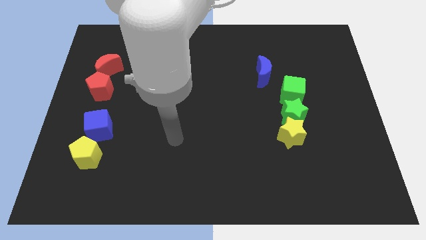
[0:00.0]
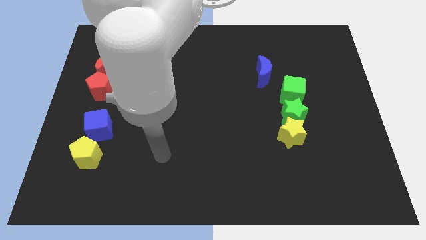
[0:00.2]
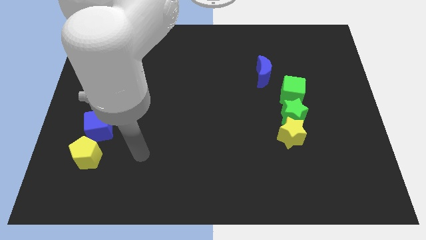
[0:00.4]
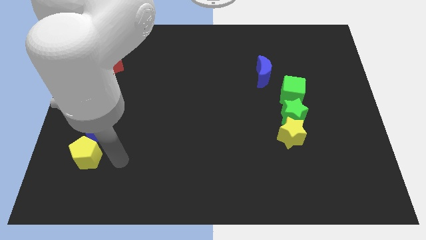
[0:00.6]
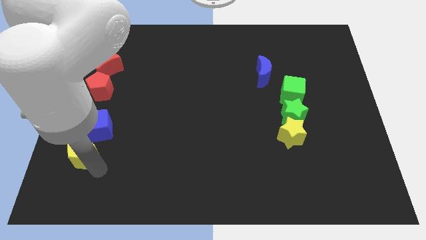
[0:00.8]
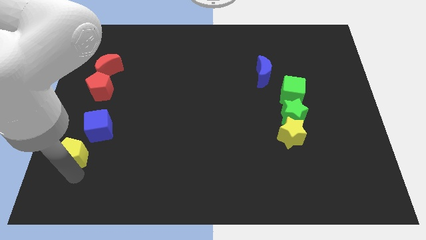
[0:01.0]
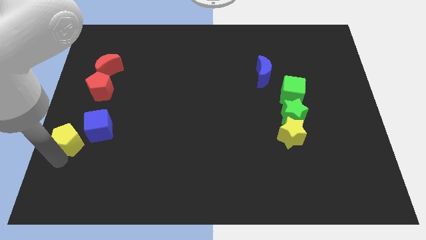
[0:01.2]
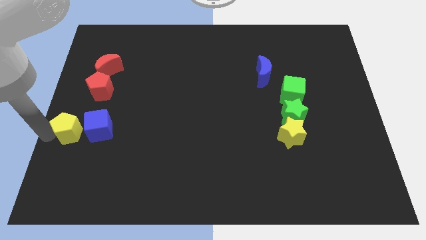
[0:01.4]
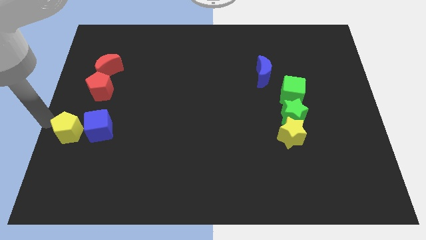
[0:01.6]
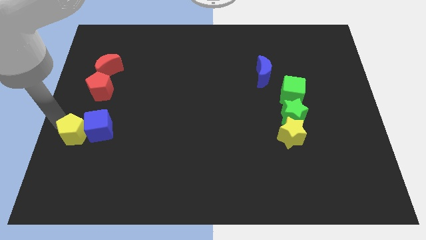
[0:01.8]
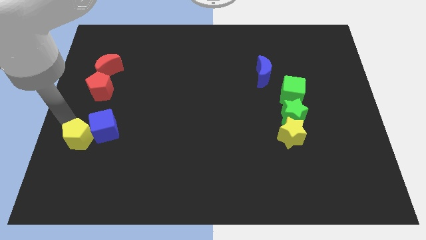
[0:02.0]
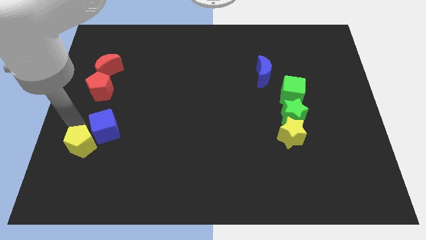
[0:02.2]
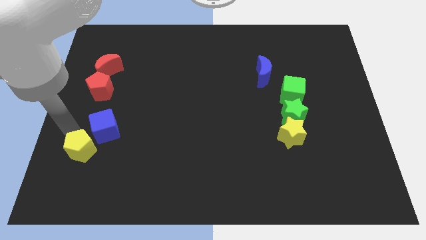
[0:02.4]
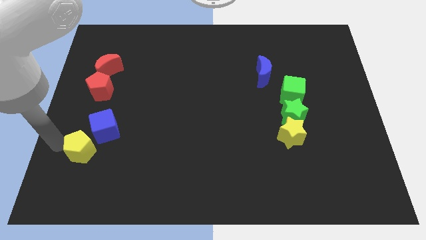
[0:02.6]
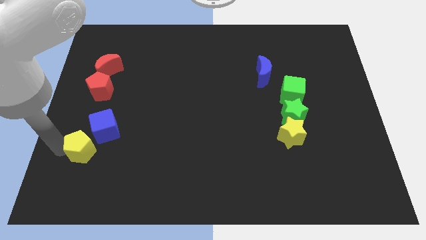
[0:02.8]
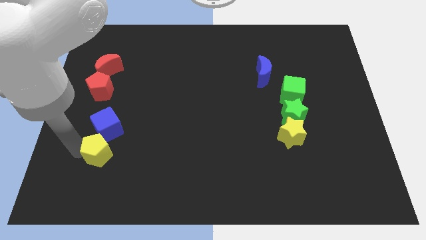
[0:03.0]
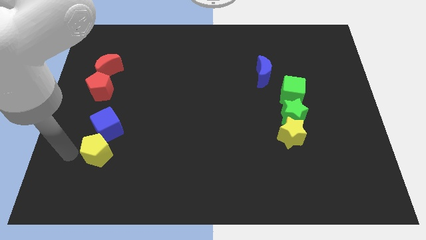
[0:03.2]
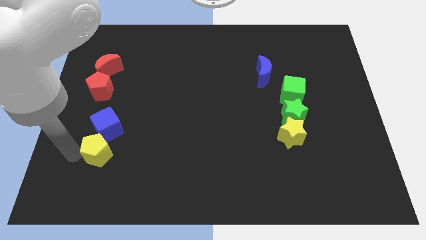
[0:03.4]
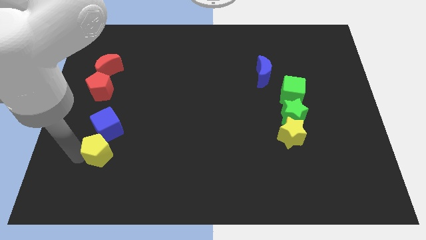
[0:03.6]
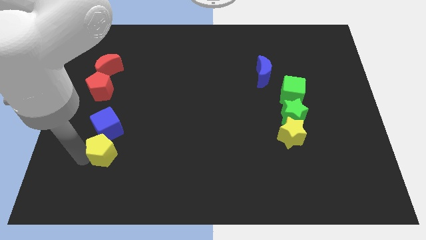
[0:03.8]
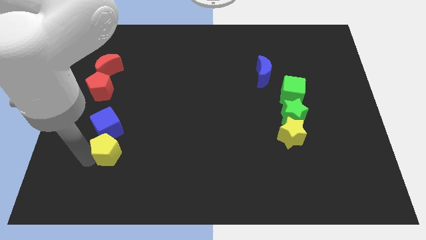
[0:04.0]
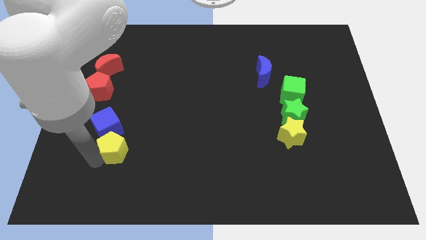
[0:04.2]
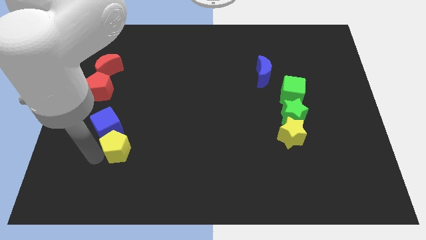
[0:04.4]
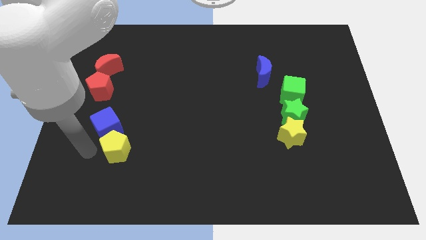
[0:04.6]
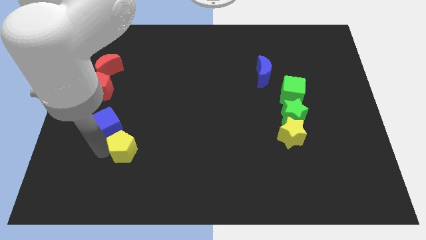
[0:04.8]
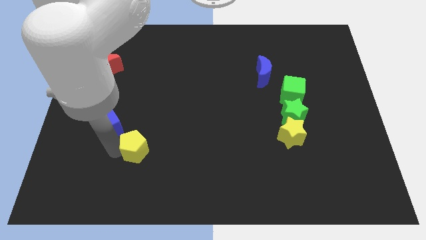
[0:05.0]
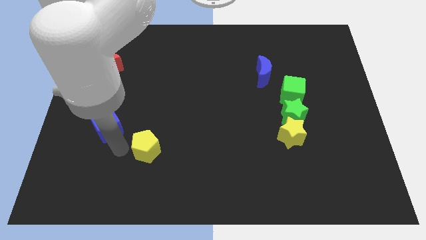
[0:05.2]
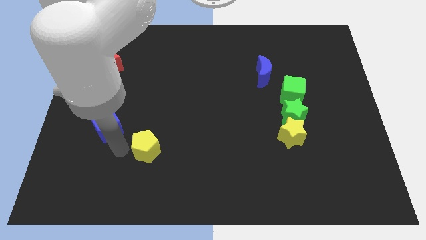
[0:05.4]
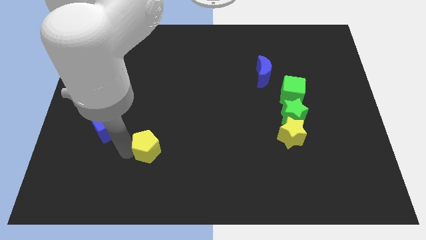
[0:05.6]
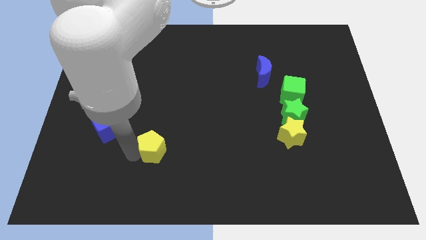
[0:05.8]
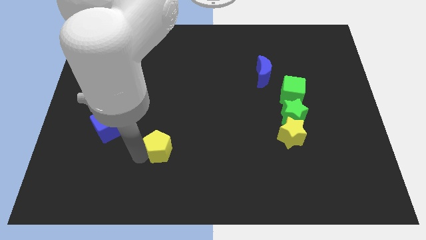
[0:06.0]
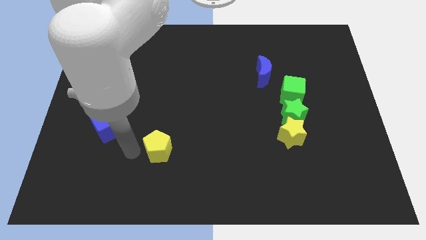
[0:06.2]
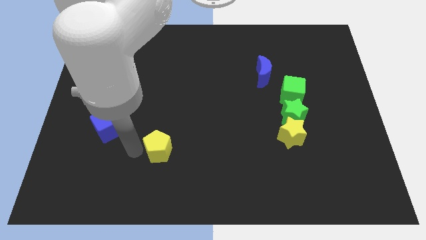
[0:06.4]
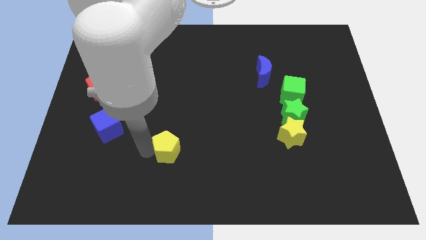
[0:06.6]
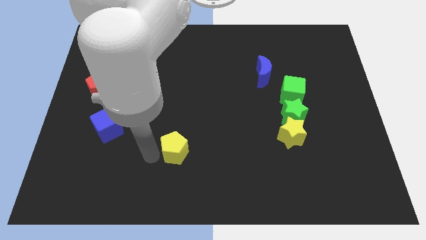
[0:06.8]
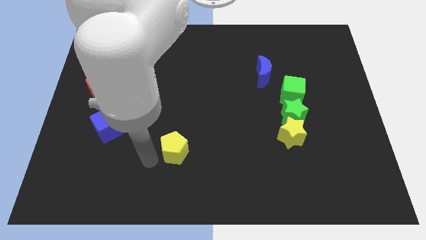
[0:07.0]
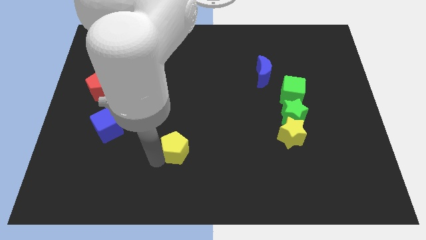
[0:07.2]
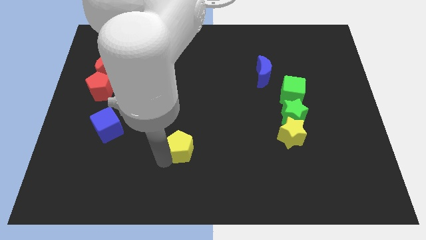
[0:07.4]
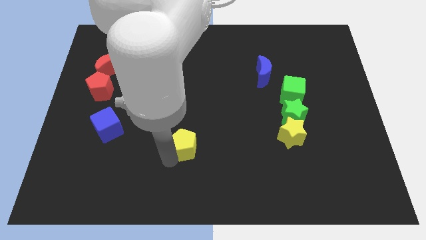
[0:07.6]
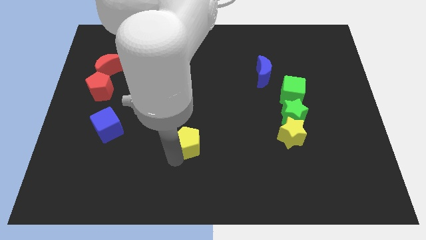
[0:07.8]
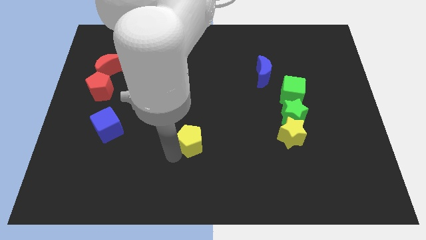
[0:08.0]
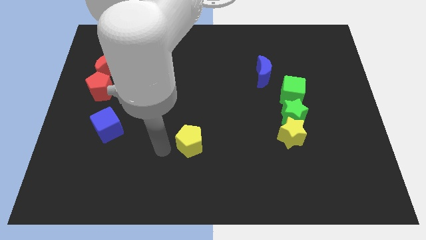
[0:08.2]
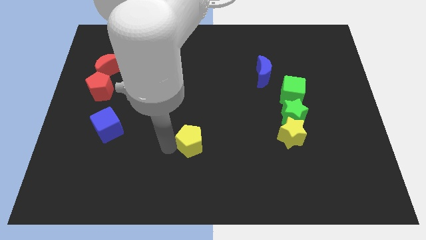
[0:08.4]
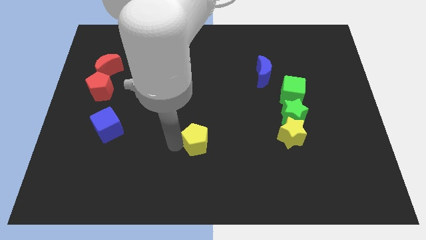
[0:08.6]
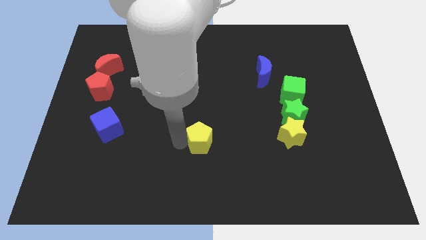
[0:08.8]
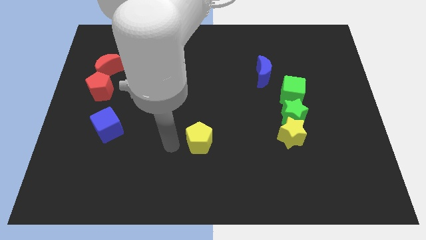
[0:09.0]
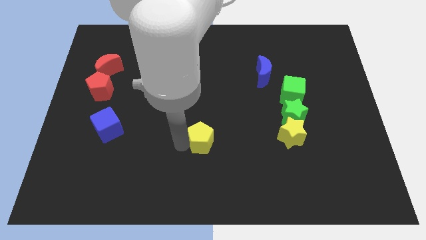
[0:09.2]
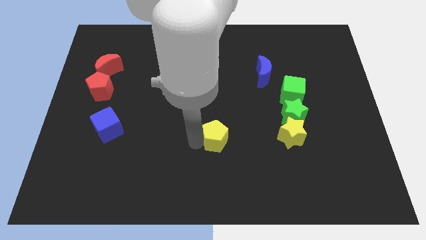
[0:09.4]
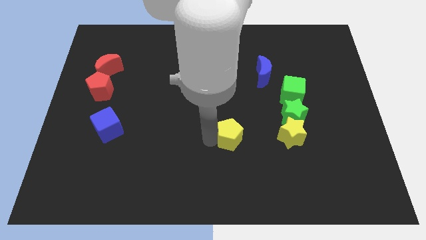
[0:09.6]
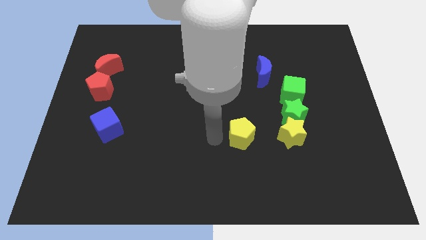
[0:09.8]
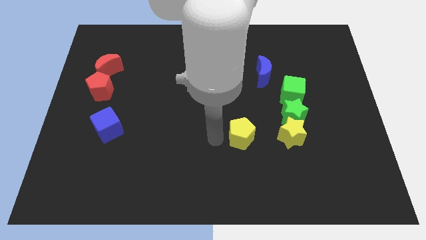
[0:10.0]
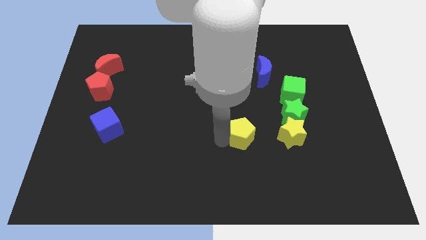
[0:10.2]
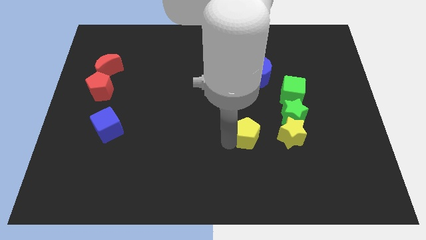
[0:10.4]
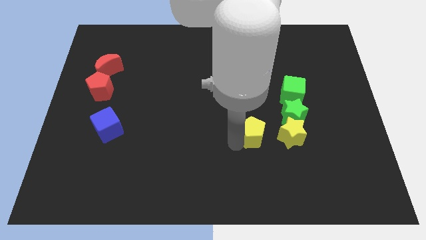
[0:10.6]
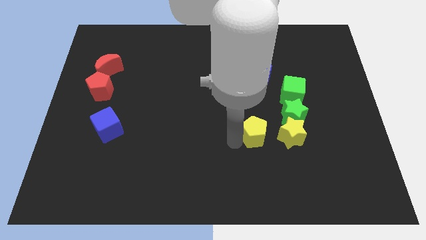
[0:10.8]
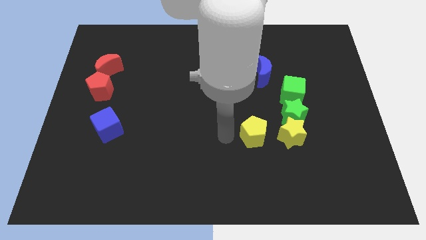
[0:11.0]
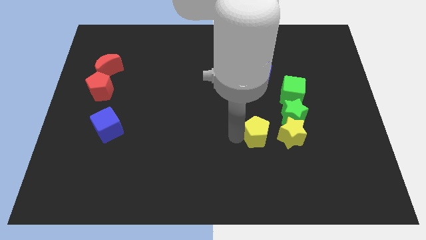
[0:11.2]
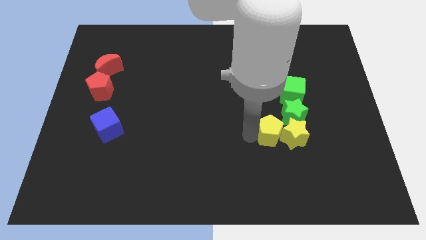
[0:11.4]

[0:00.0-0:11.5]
put the yellow pentagon next to the yellow star

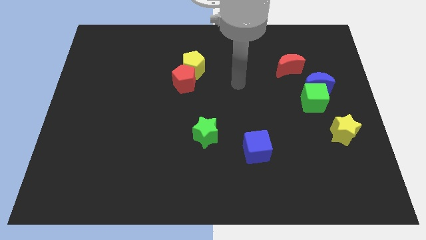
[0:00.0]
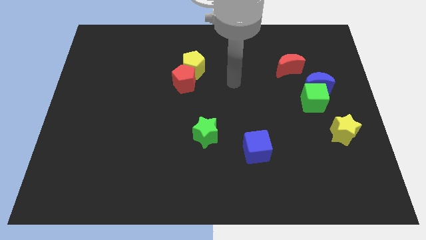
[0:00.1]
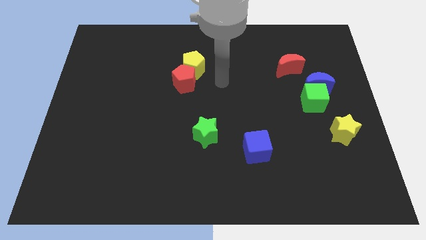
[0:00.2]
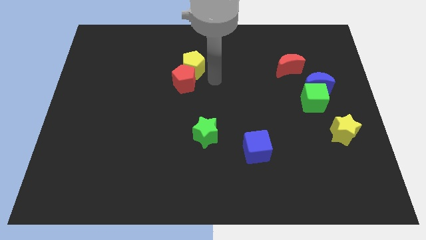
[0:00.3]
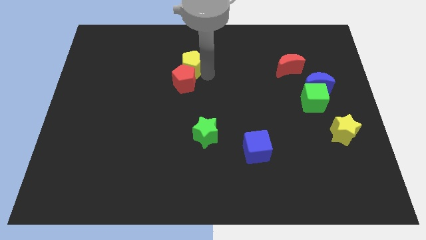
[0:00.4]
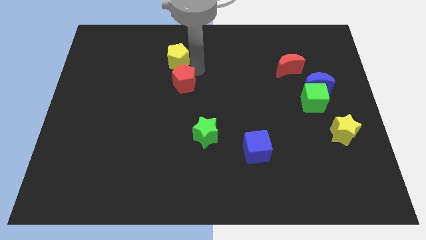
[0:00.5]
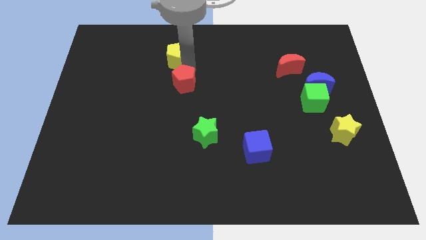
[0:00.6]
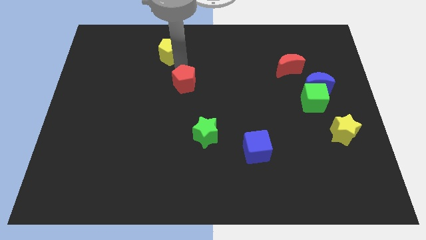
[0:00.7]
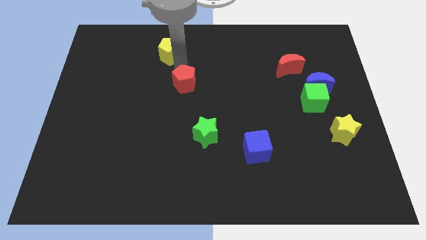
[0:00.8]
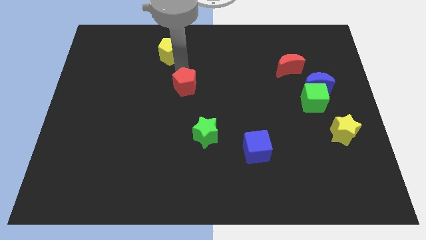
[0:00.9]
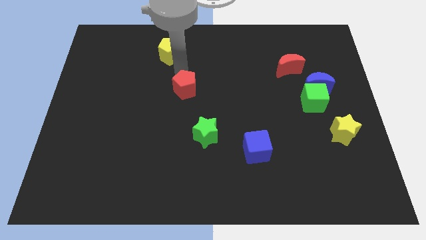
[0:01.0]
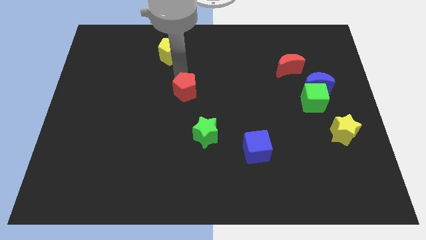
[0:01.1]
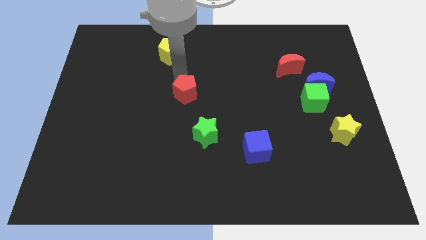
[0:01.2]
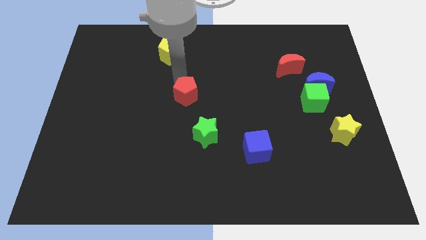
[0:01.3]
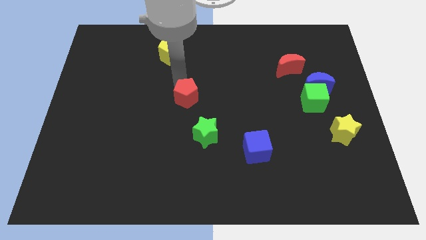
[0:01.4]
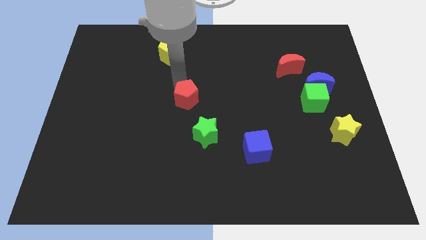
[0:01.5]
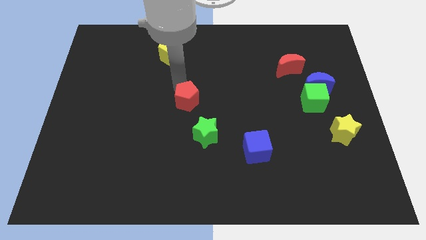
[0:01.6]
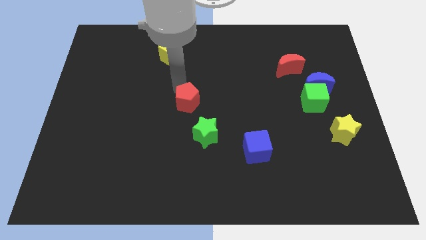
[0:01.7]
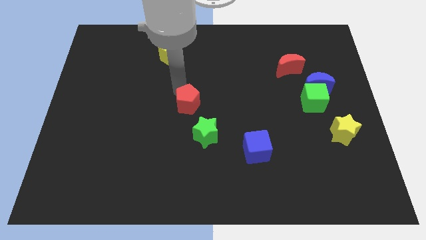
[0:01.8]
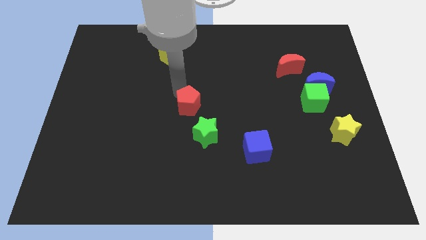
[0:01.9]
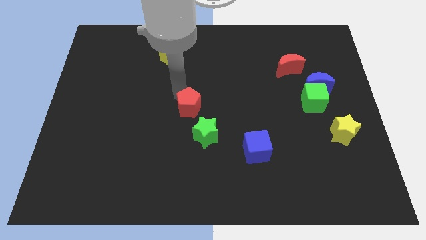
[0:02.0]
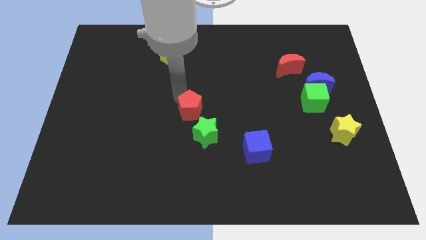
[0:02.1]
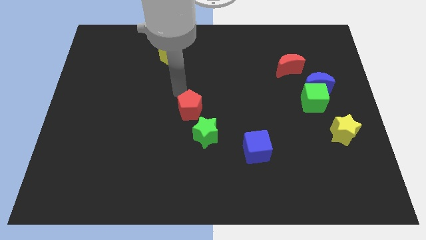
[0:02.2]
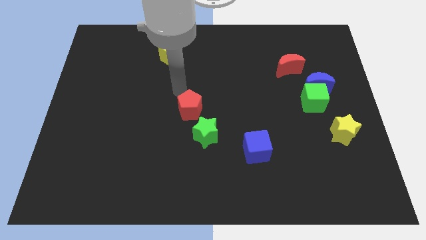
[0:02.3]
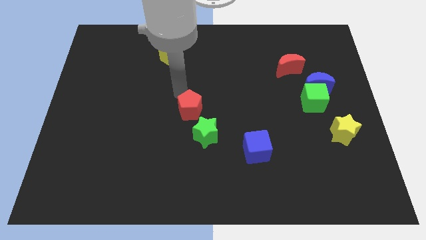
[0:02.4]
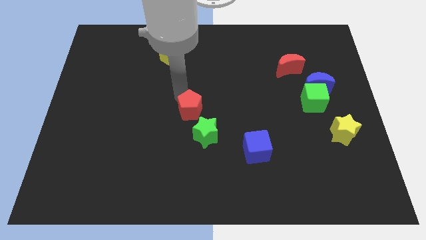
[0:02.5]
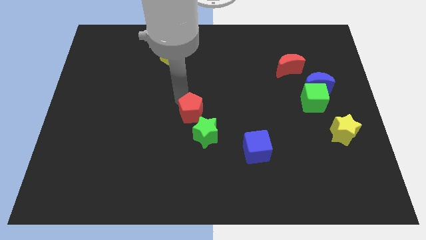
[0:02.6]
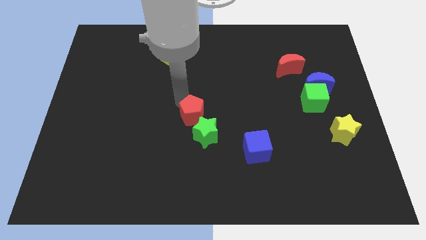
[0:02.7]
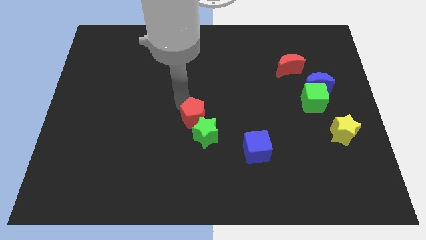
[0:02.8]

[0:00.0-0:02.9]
move the red pentagon towards the green star
